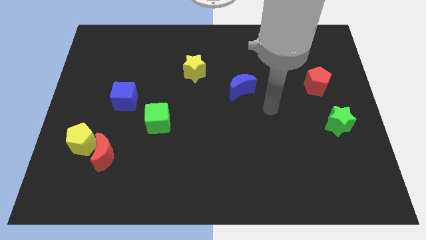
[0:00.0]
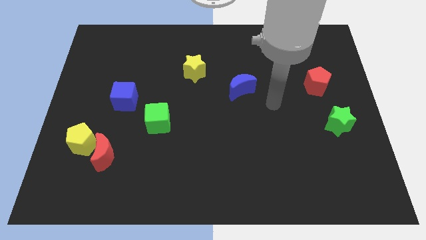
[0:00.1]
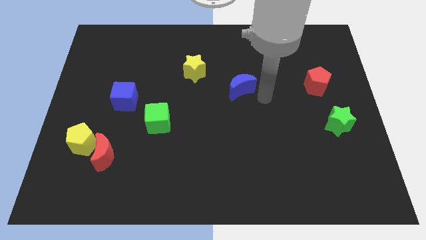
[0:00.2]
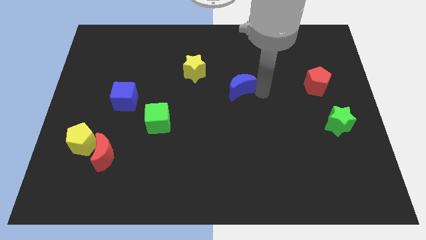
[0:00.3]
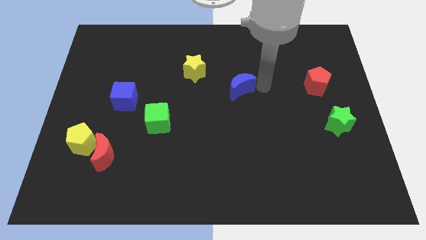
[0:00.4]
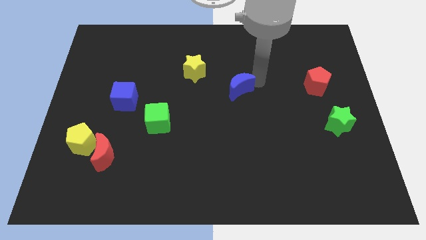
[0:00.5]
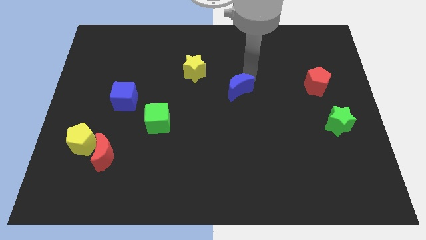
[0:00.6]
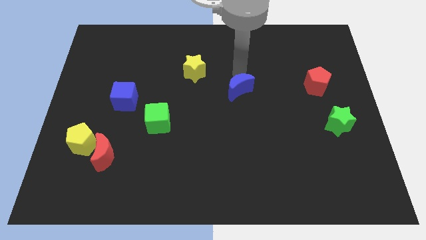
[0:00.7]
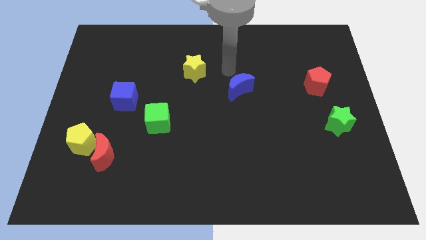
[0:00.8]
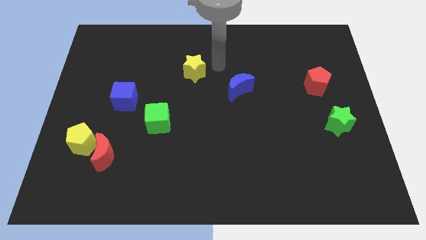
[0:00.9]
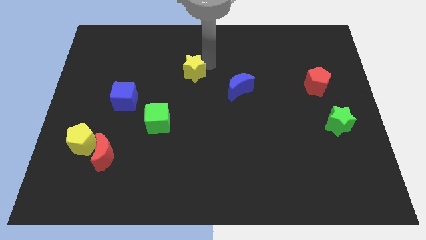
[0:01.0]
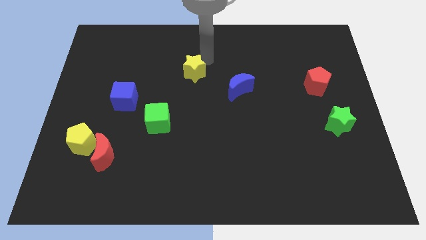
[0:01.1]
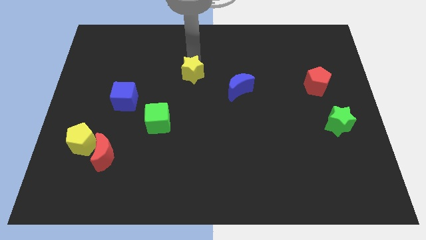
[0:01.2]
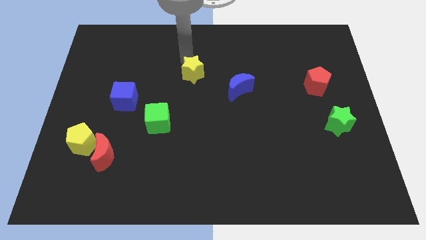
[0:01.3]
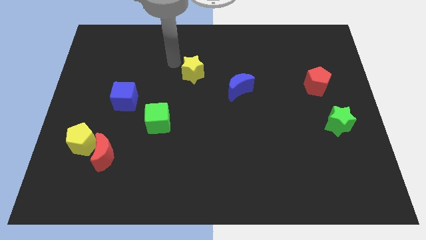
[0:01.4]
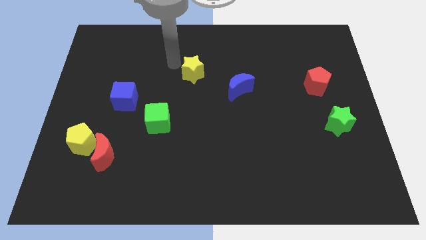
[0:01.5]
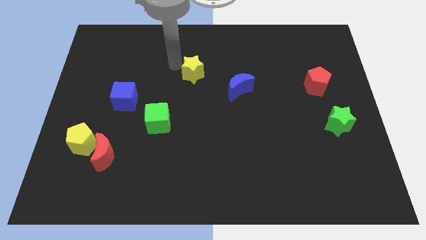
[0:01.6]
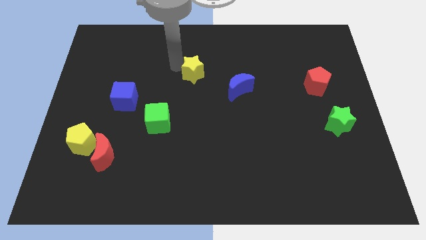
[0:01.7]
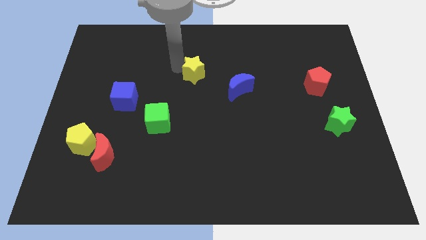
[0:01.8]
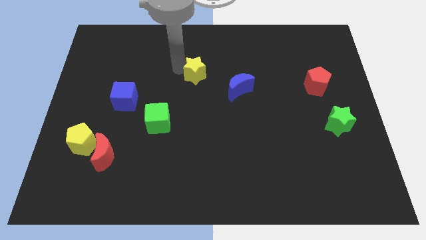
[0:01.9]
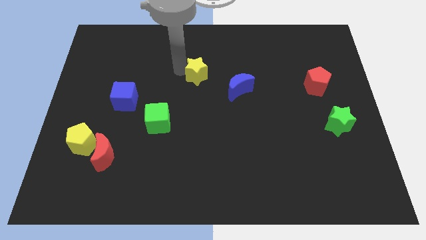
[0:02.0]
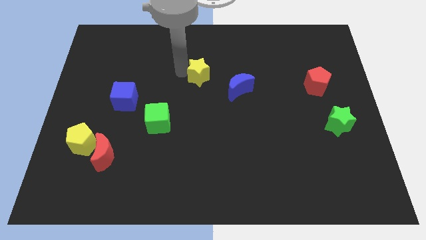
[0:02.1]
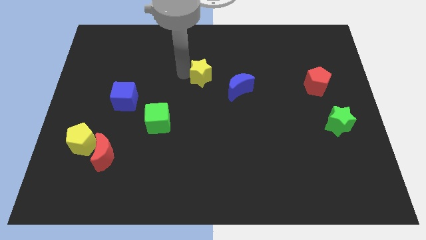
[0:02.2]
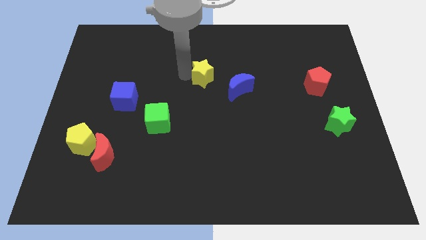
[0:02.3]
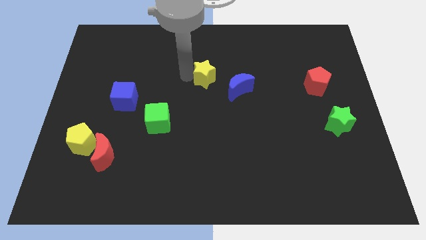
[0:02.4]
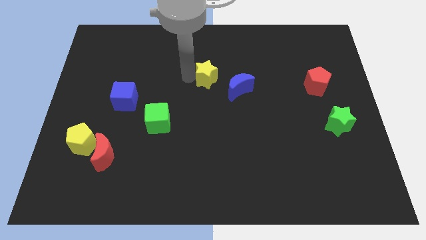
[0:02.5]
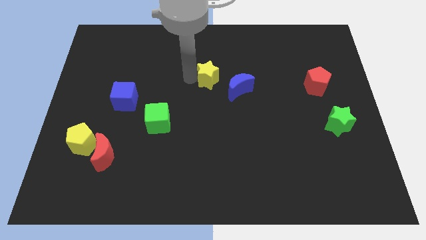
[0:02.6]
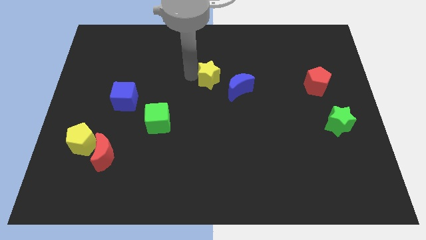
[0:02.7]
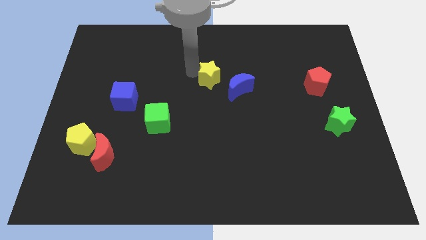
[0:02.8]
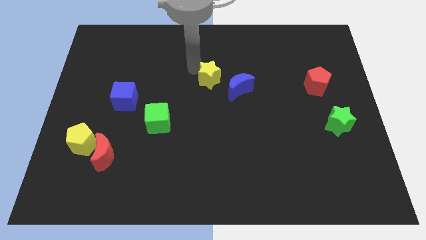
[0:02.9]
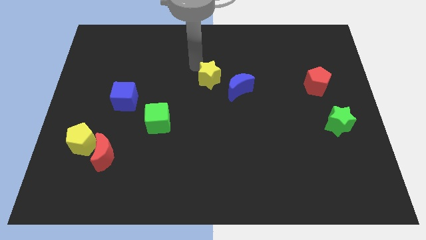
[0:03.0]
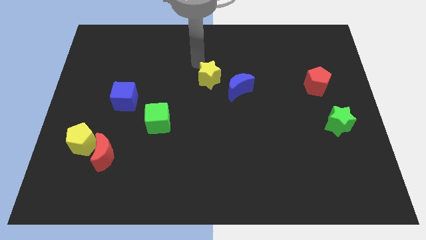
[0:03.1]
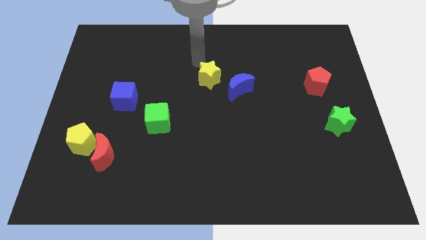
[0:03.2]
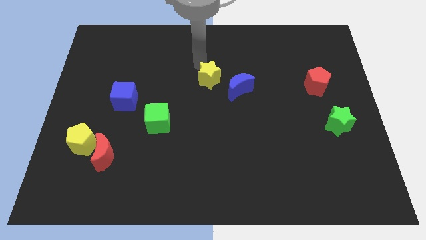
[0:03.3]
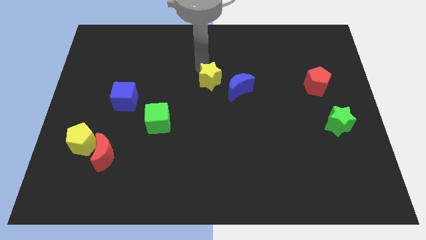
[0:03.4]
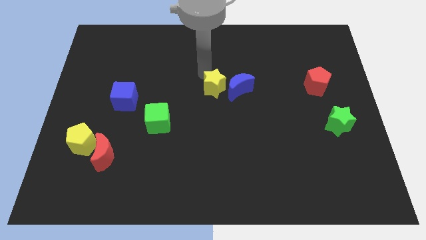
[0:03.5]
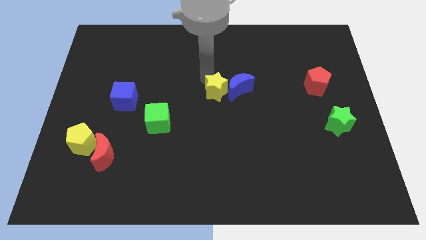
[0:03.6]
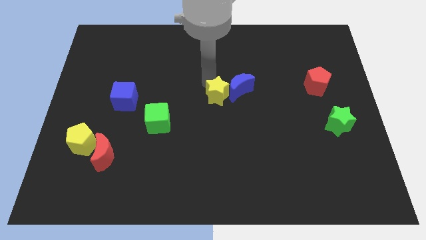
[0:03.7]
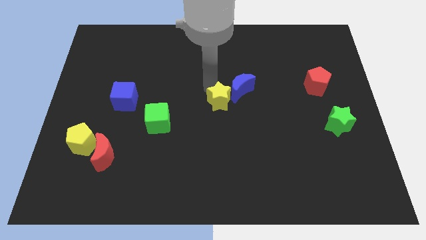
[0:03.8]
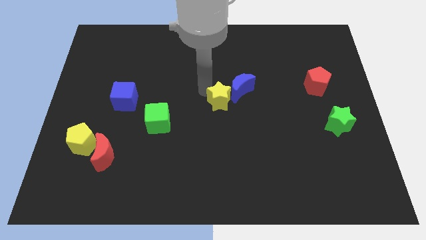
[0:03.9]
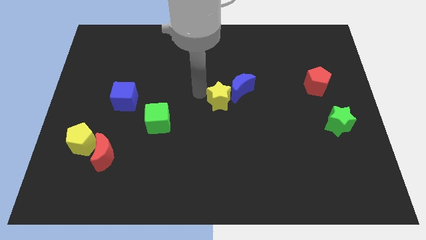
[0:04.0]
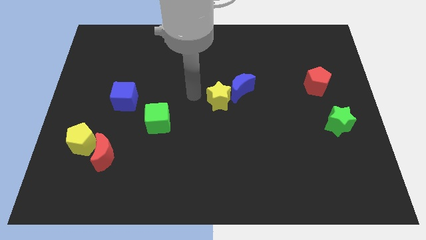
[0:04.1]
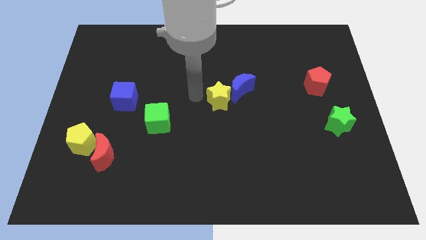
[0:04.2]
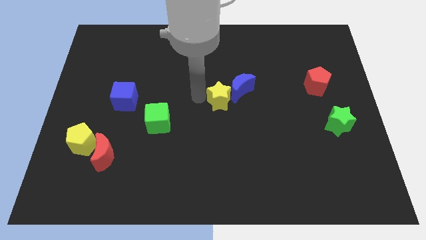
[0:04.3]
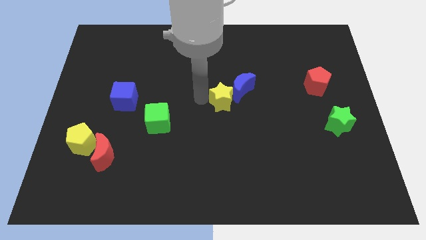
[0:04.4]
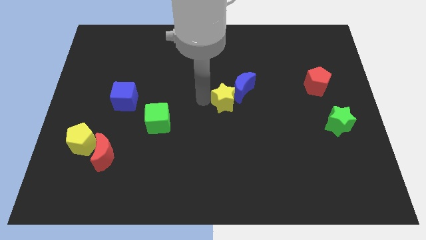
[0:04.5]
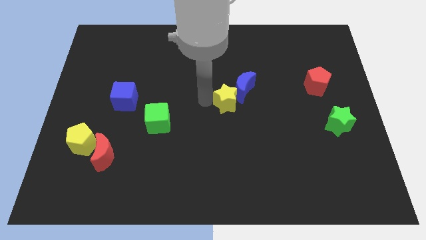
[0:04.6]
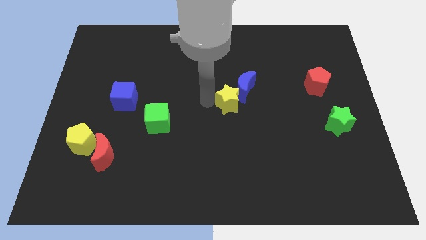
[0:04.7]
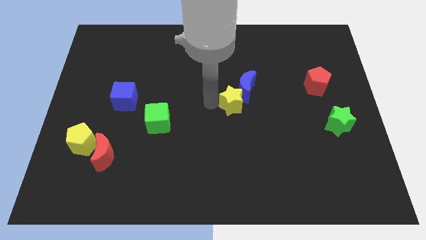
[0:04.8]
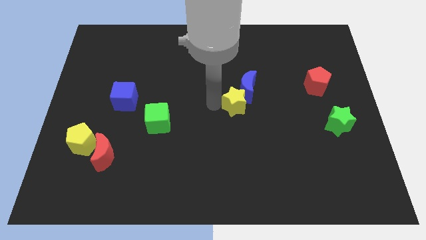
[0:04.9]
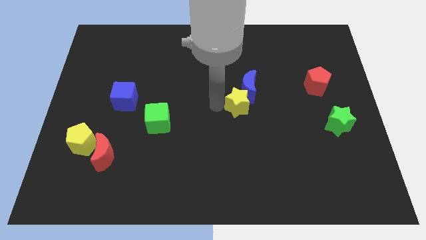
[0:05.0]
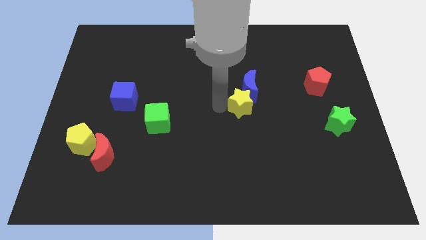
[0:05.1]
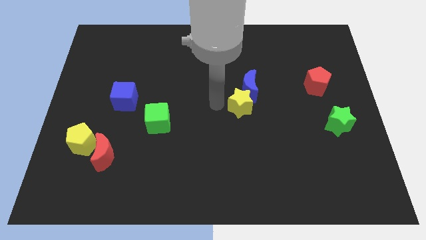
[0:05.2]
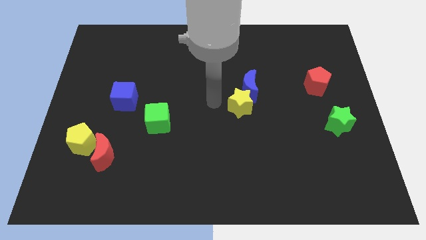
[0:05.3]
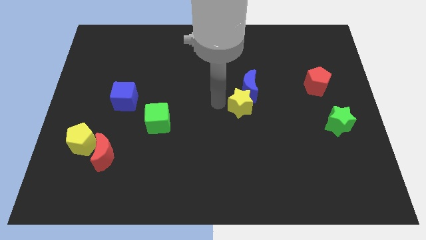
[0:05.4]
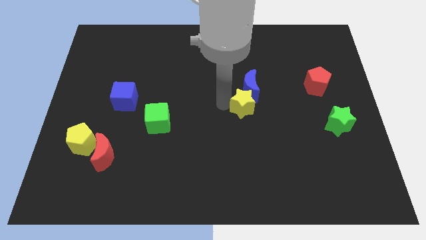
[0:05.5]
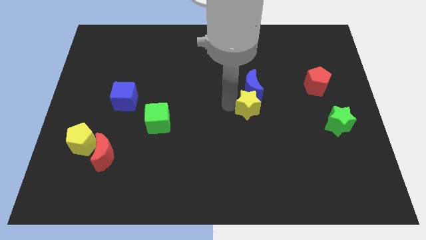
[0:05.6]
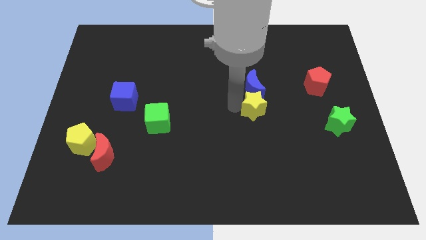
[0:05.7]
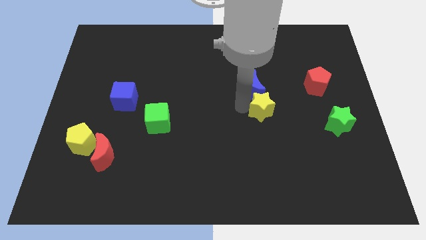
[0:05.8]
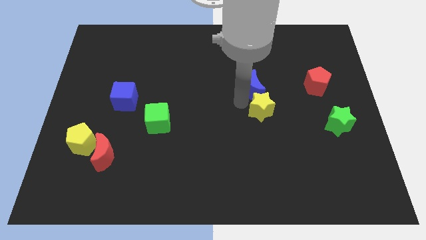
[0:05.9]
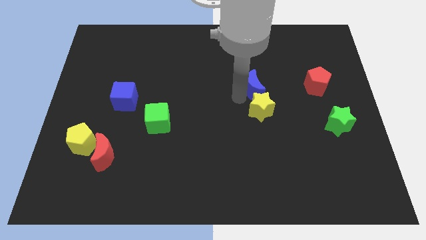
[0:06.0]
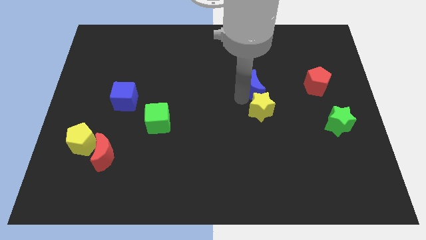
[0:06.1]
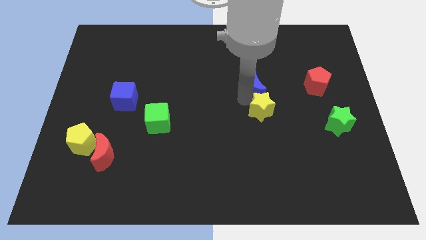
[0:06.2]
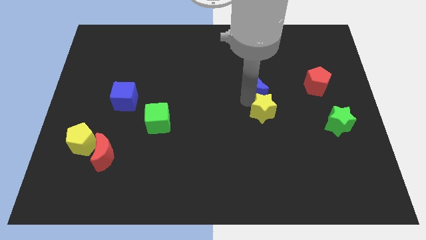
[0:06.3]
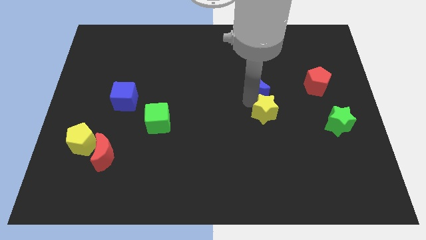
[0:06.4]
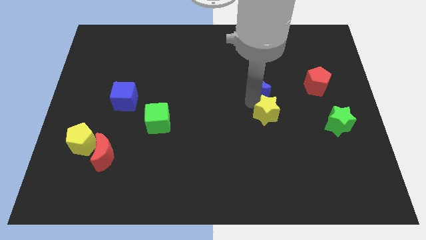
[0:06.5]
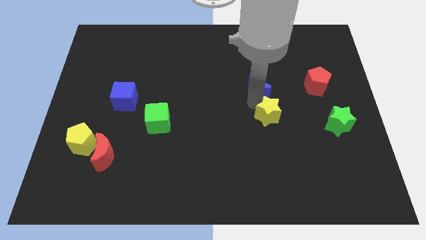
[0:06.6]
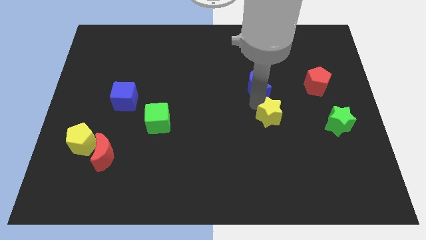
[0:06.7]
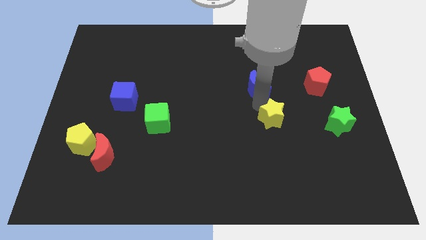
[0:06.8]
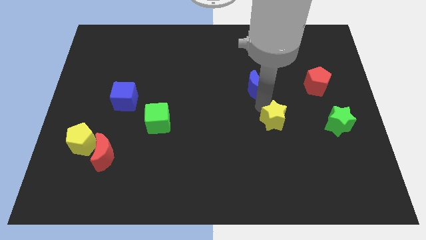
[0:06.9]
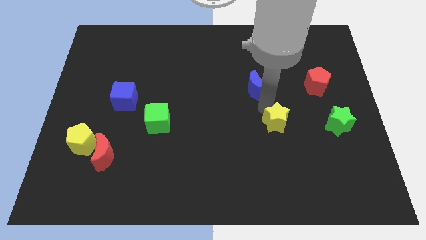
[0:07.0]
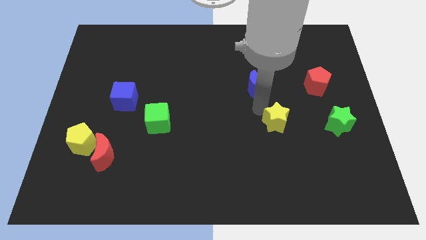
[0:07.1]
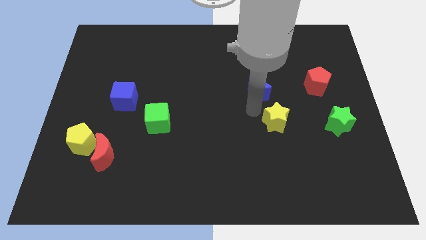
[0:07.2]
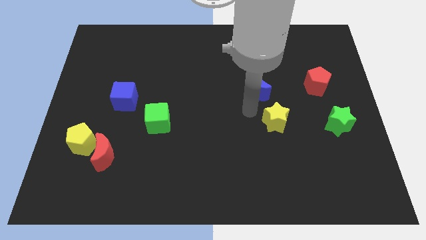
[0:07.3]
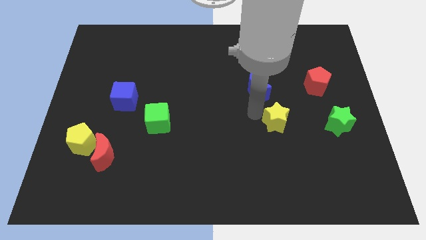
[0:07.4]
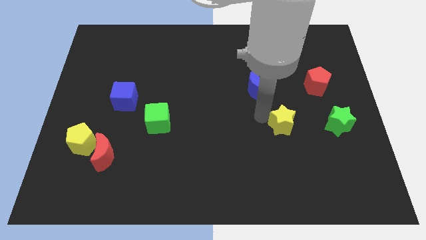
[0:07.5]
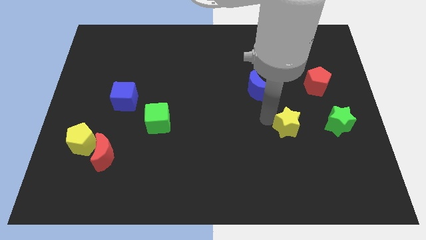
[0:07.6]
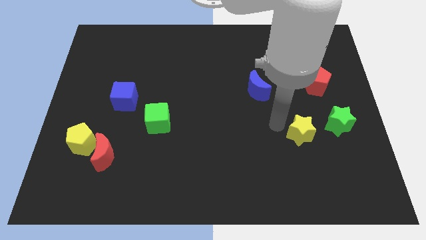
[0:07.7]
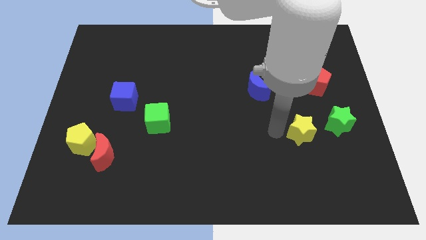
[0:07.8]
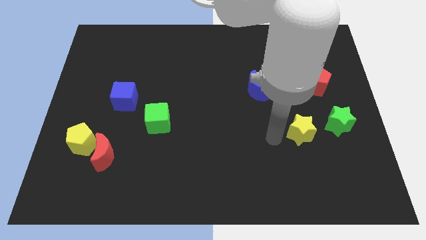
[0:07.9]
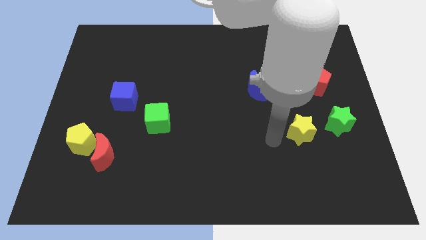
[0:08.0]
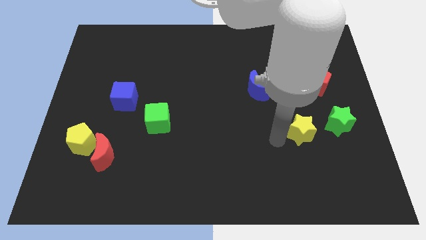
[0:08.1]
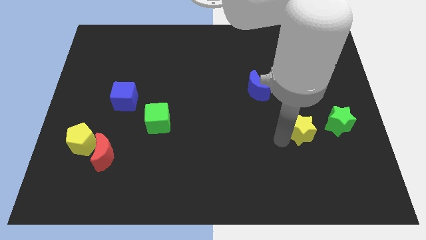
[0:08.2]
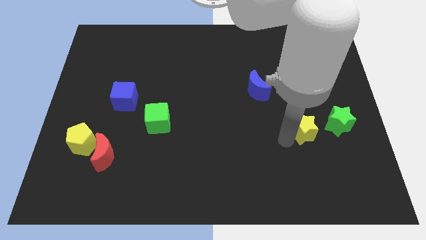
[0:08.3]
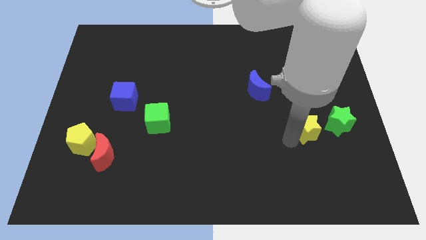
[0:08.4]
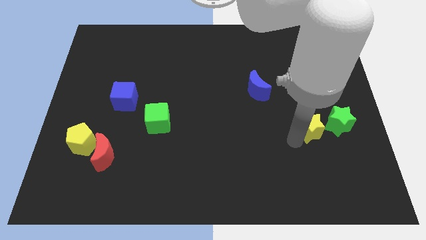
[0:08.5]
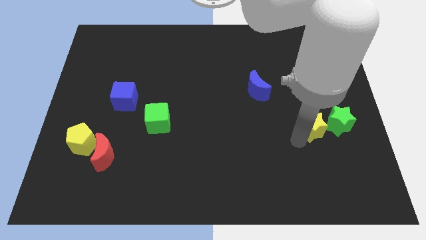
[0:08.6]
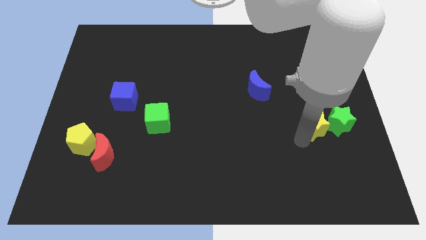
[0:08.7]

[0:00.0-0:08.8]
put the yellow star close to the green star
